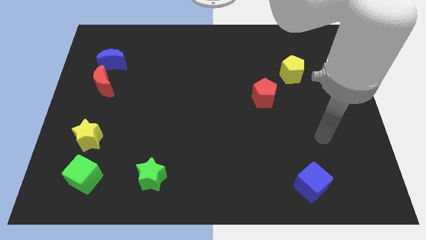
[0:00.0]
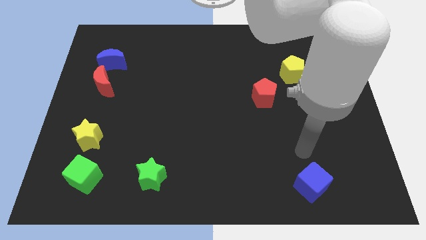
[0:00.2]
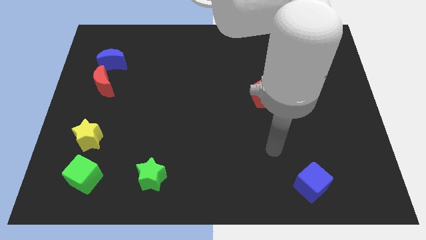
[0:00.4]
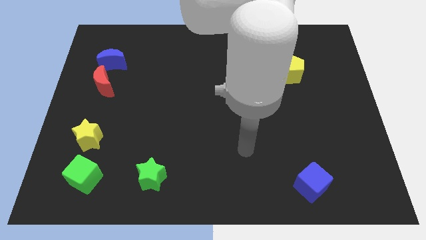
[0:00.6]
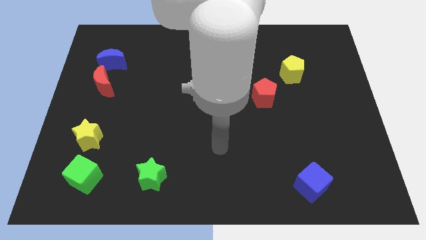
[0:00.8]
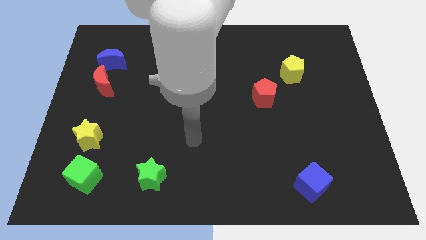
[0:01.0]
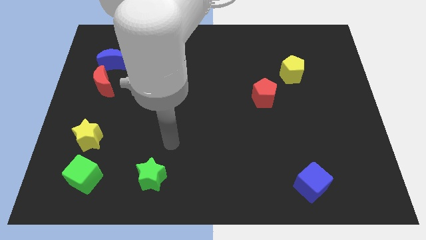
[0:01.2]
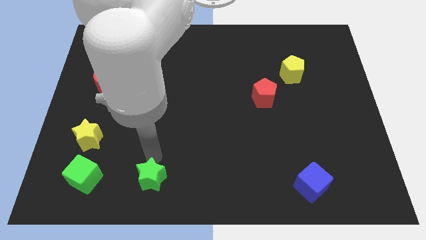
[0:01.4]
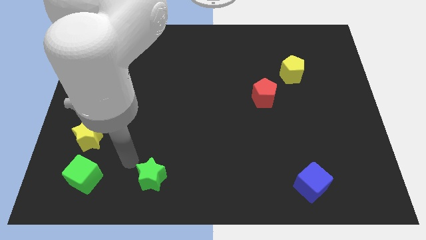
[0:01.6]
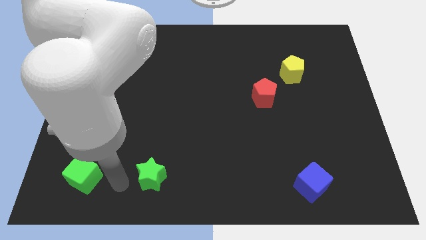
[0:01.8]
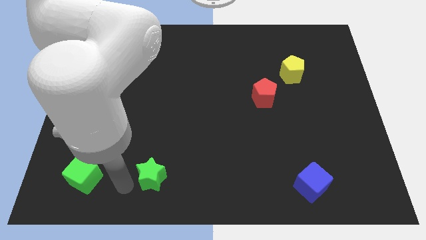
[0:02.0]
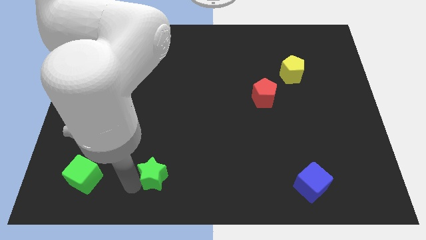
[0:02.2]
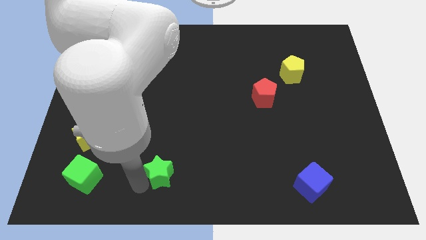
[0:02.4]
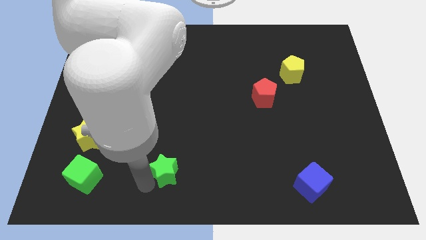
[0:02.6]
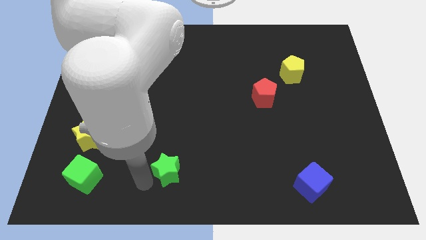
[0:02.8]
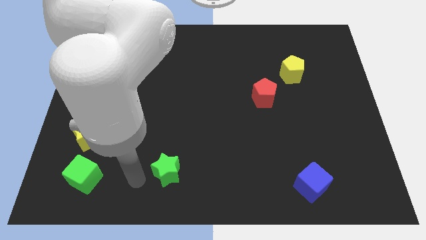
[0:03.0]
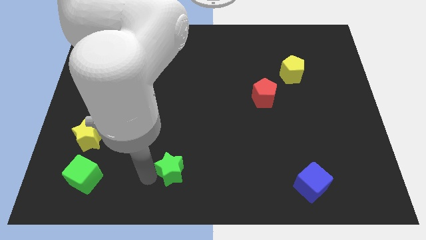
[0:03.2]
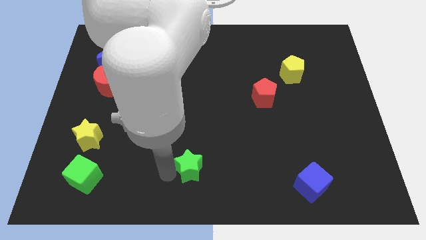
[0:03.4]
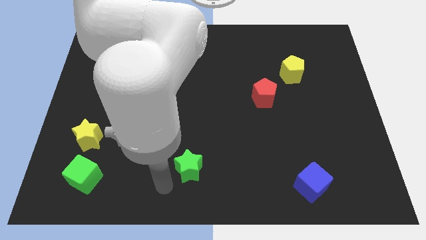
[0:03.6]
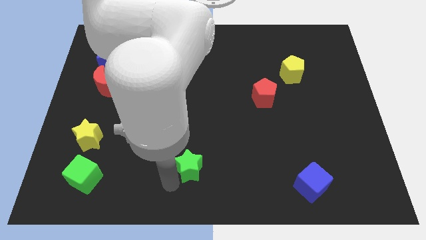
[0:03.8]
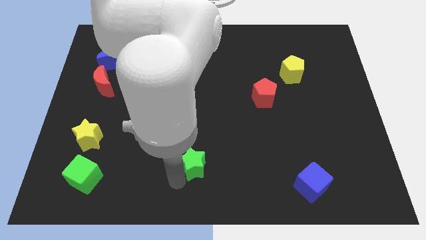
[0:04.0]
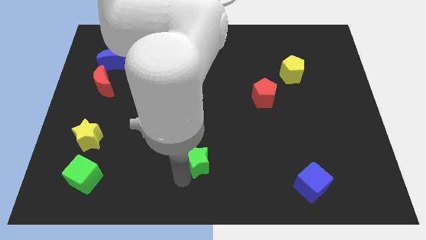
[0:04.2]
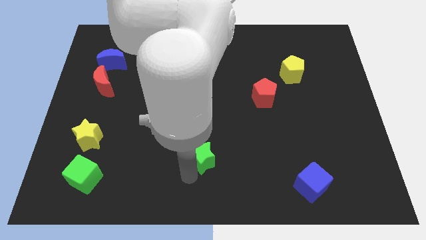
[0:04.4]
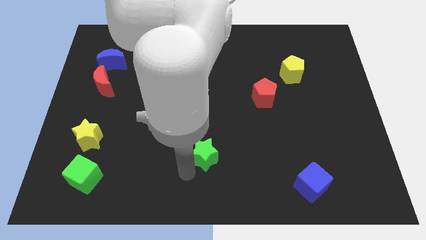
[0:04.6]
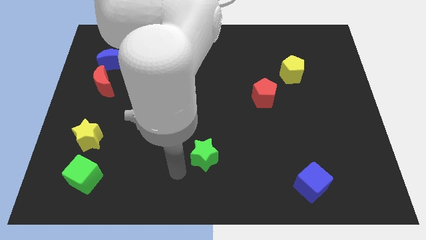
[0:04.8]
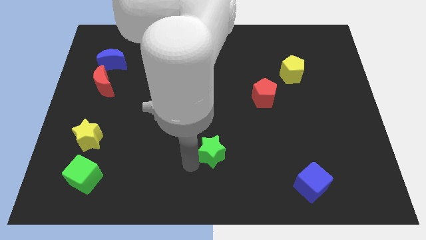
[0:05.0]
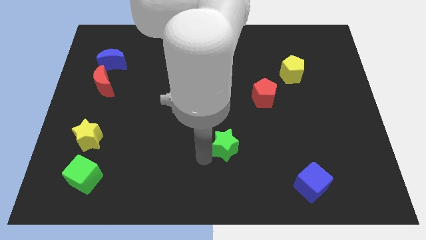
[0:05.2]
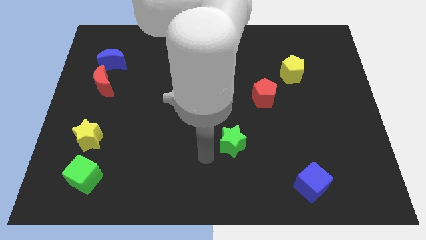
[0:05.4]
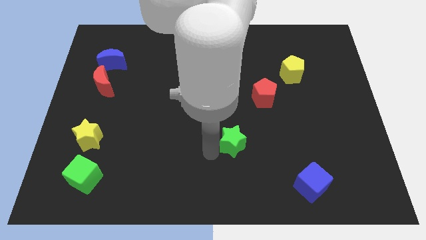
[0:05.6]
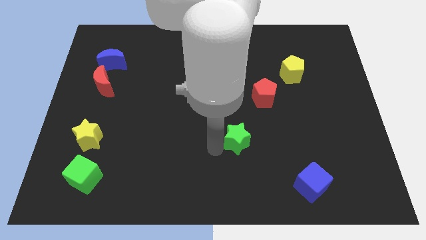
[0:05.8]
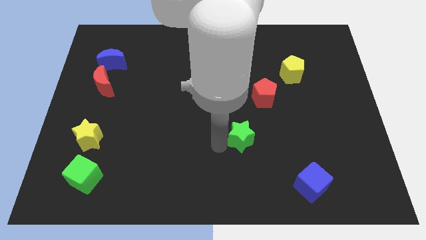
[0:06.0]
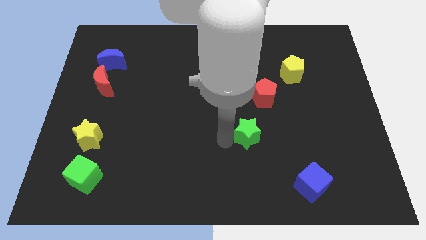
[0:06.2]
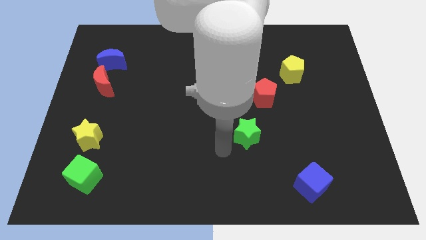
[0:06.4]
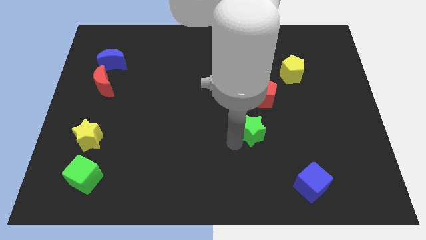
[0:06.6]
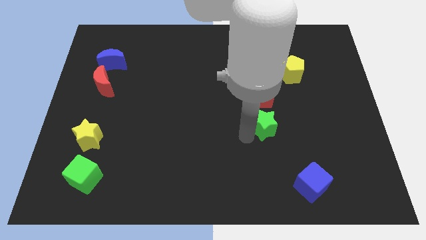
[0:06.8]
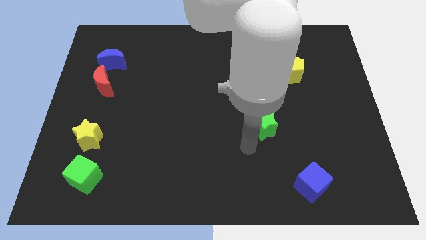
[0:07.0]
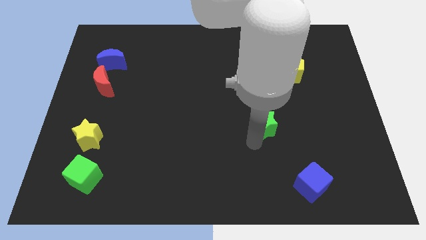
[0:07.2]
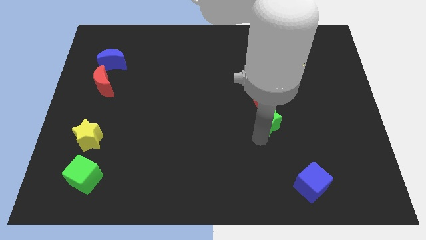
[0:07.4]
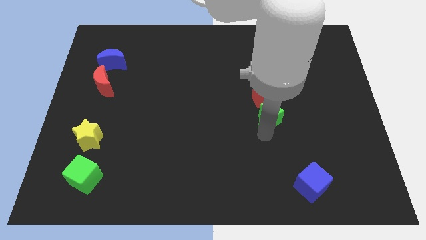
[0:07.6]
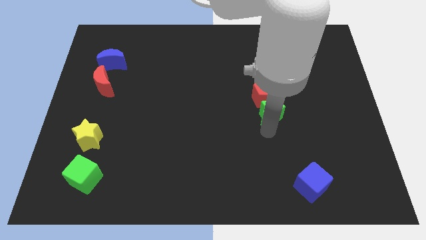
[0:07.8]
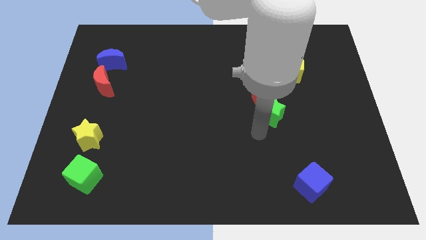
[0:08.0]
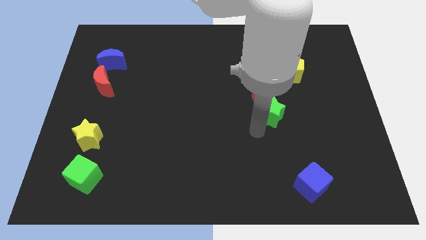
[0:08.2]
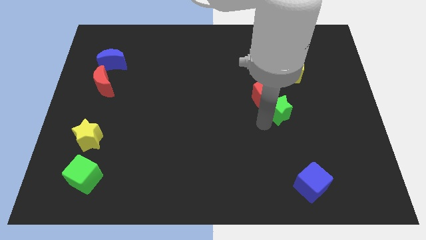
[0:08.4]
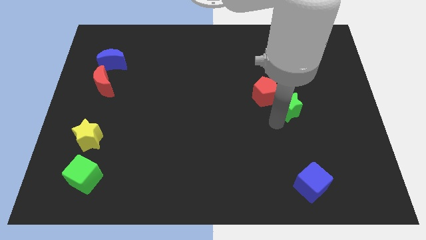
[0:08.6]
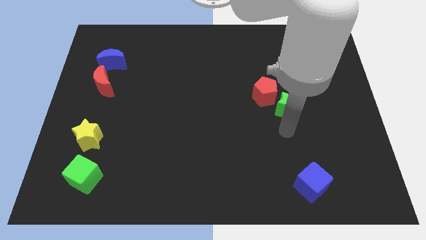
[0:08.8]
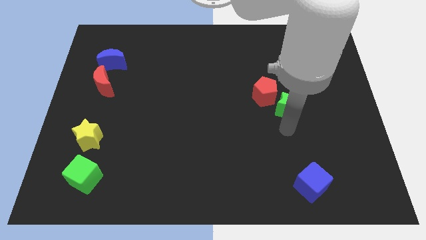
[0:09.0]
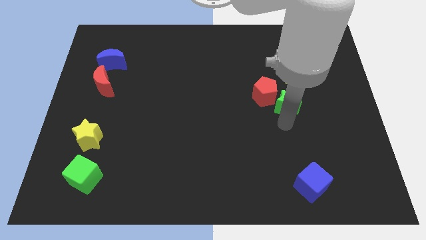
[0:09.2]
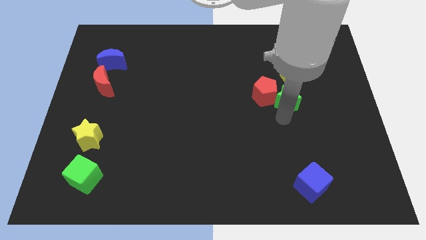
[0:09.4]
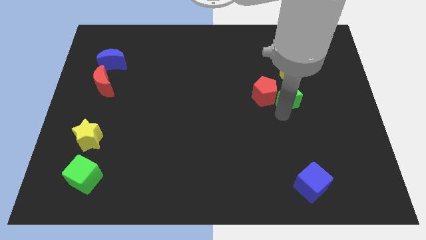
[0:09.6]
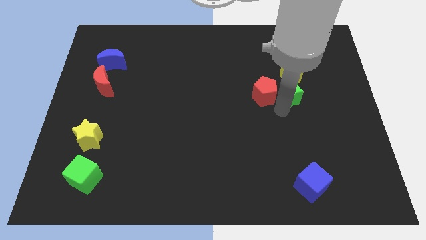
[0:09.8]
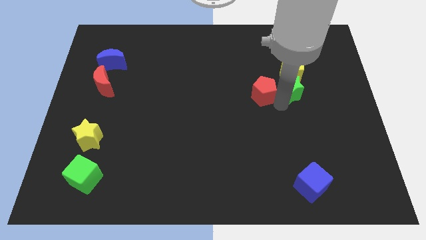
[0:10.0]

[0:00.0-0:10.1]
move the green star next to the yellow pentagon

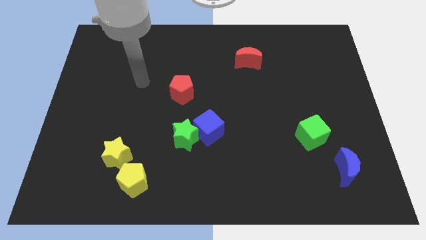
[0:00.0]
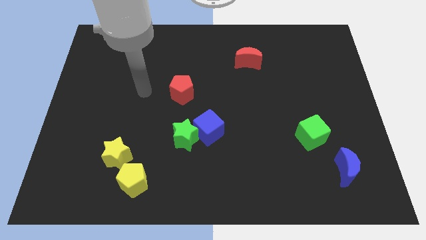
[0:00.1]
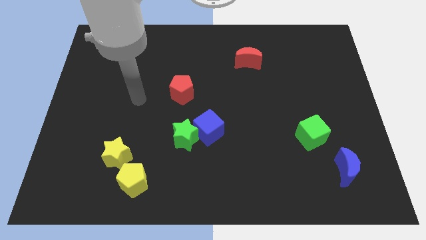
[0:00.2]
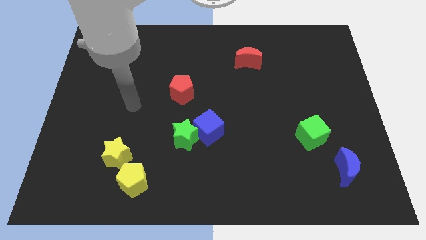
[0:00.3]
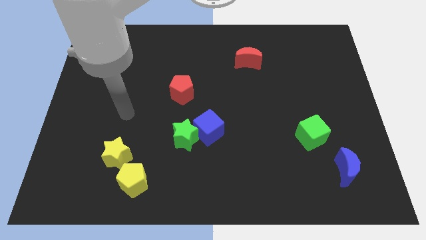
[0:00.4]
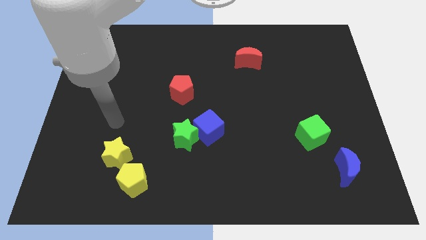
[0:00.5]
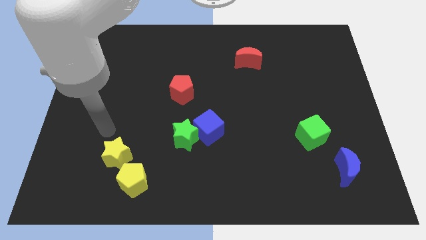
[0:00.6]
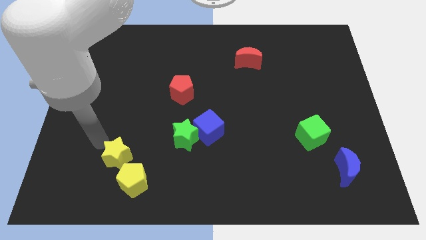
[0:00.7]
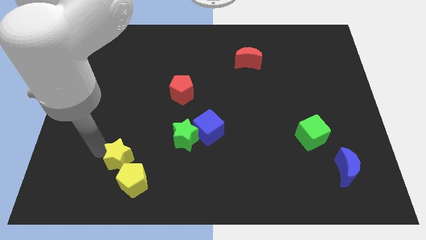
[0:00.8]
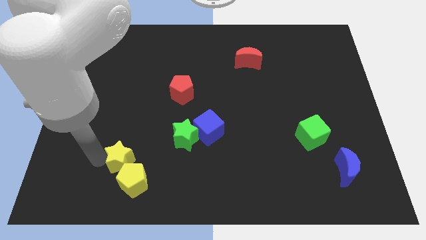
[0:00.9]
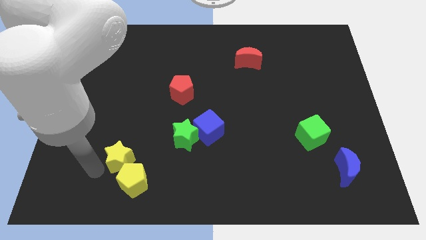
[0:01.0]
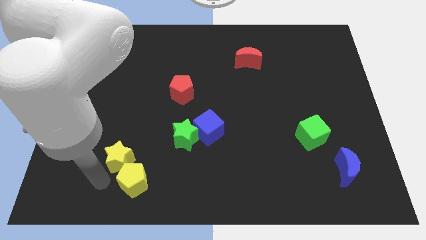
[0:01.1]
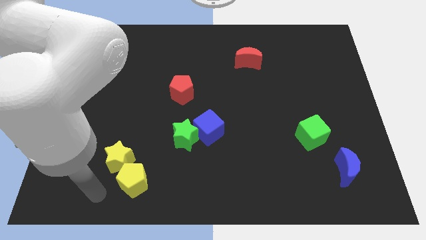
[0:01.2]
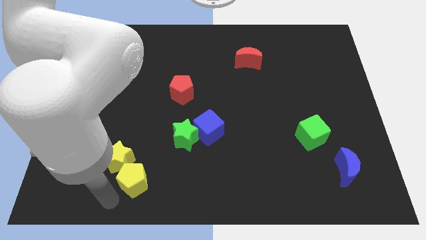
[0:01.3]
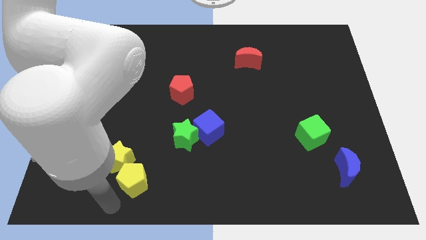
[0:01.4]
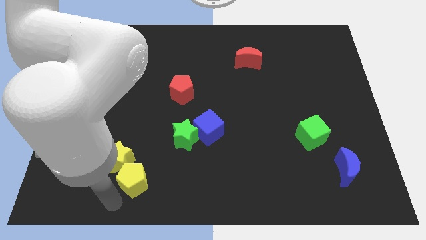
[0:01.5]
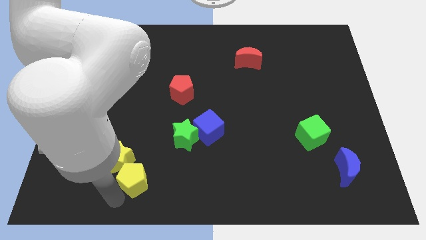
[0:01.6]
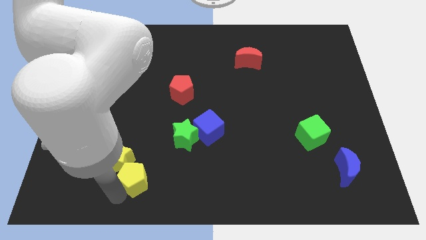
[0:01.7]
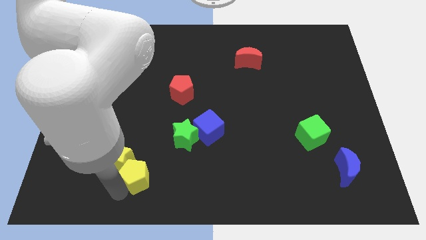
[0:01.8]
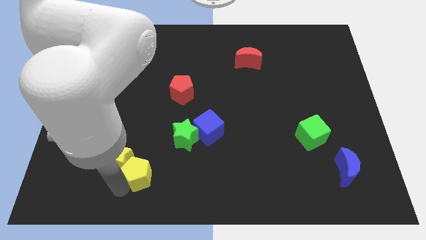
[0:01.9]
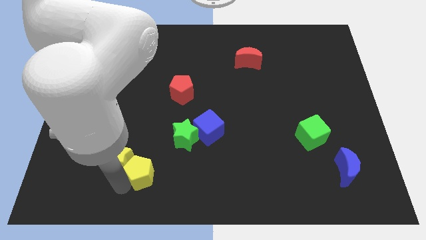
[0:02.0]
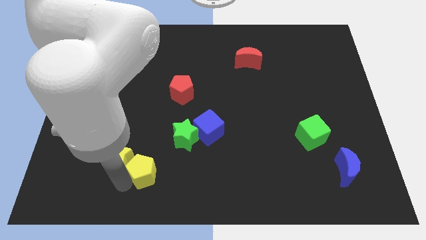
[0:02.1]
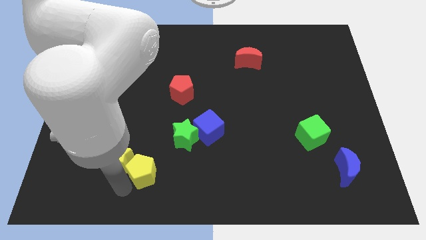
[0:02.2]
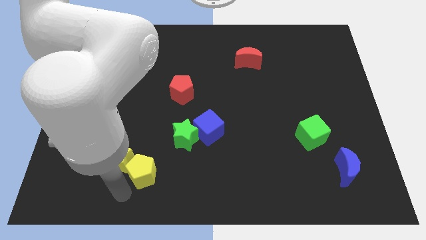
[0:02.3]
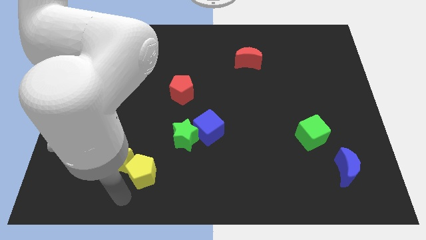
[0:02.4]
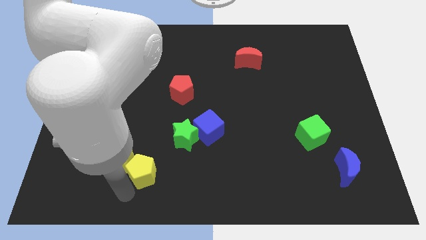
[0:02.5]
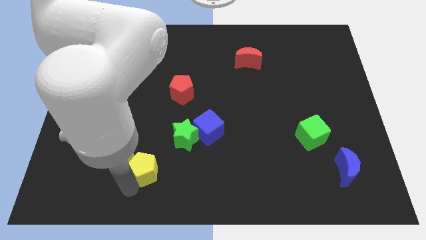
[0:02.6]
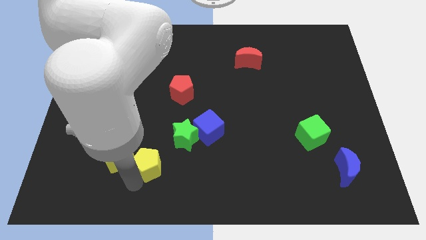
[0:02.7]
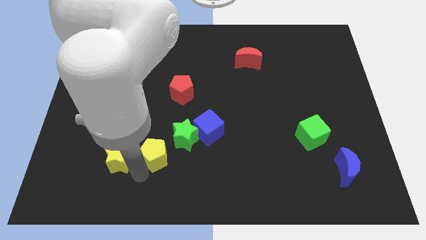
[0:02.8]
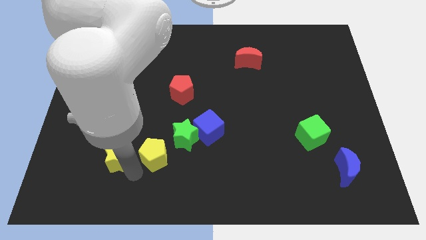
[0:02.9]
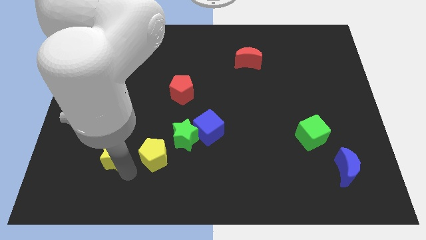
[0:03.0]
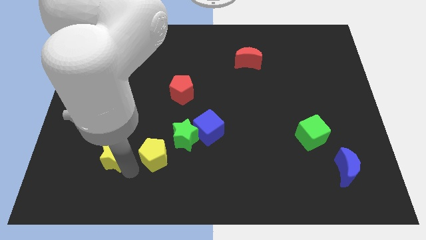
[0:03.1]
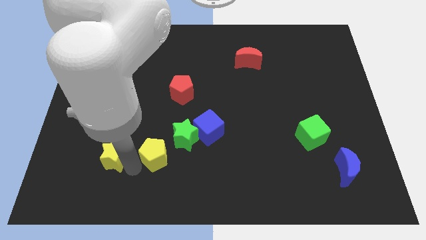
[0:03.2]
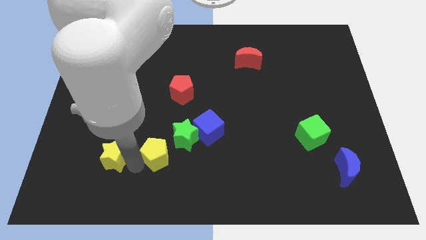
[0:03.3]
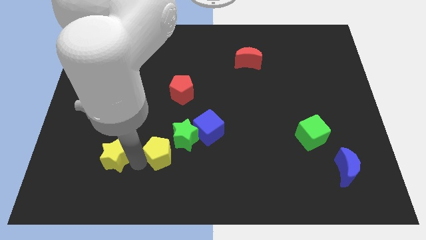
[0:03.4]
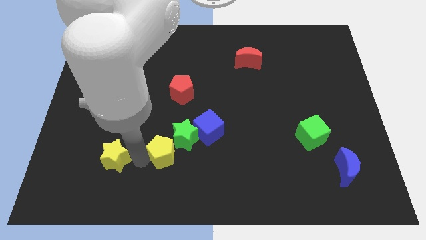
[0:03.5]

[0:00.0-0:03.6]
move the yellow pentagon towards the green star
